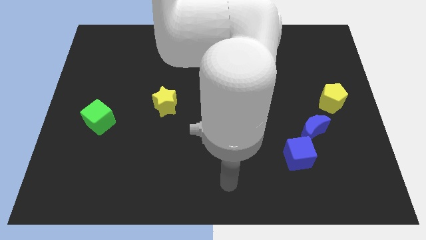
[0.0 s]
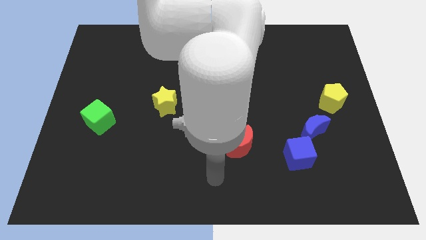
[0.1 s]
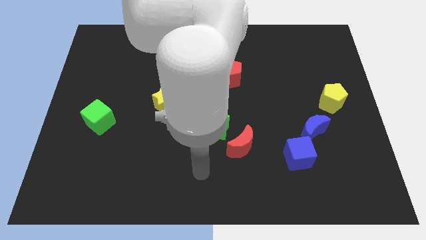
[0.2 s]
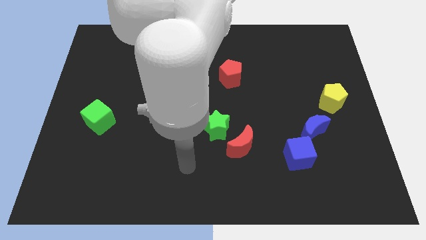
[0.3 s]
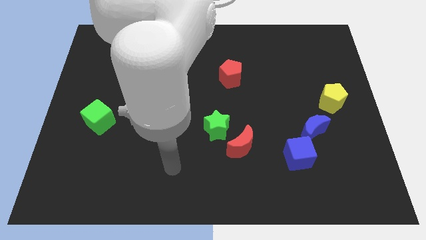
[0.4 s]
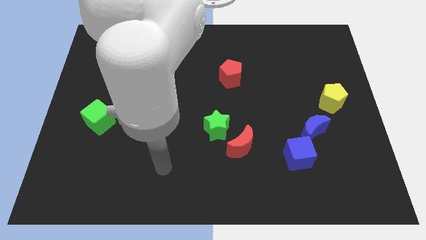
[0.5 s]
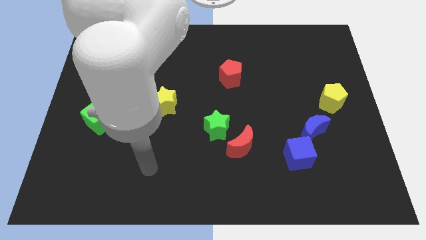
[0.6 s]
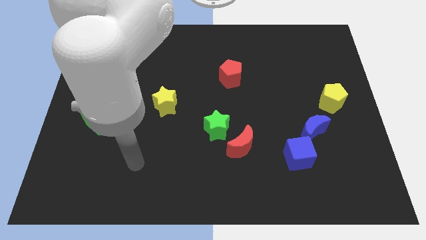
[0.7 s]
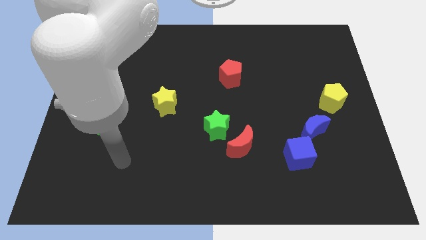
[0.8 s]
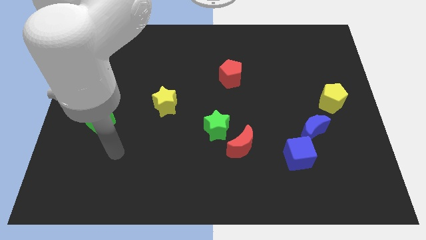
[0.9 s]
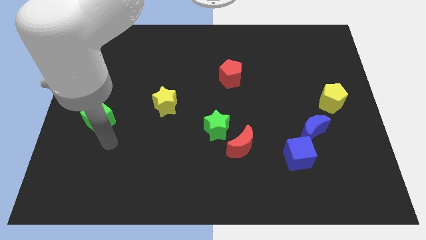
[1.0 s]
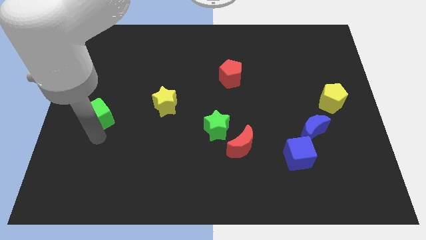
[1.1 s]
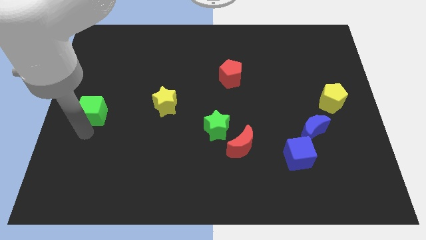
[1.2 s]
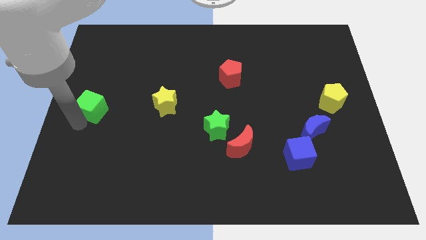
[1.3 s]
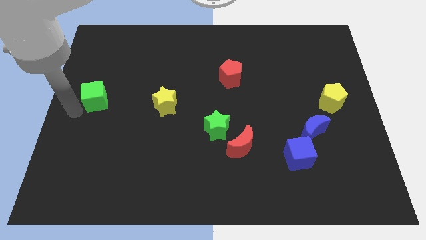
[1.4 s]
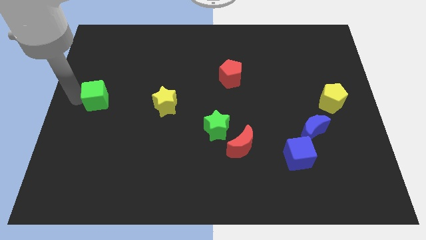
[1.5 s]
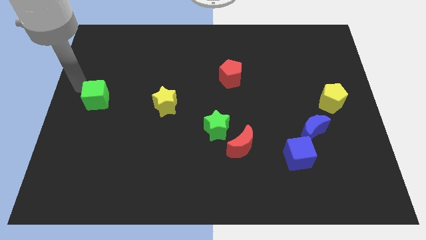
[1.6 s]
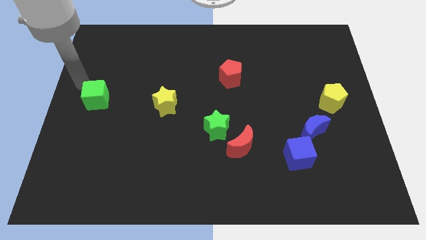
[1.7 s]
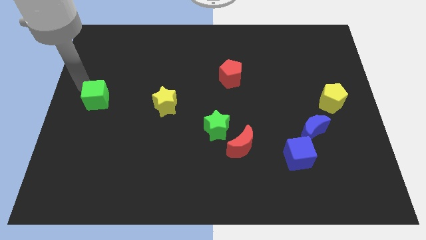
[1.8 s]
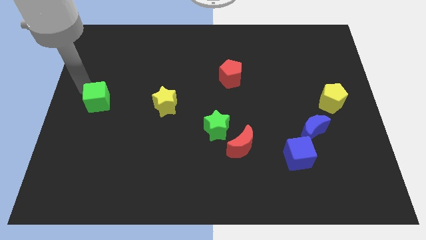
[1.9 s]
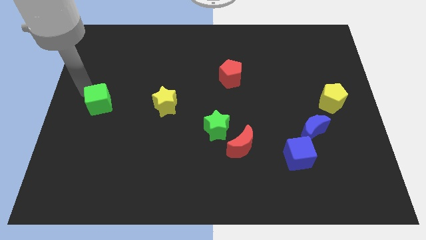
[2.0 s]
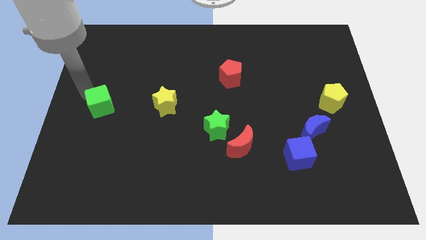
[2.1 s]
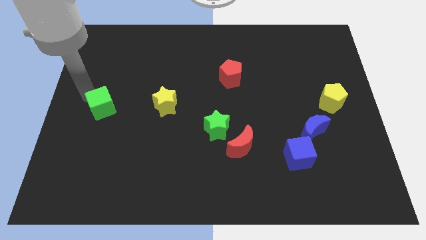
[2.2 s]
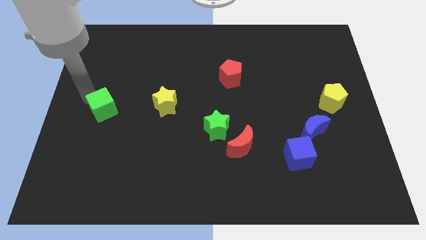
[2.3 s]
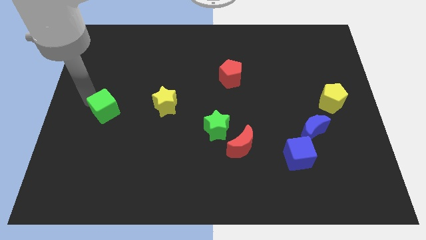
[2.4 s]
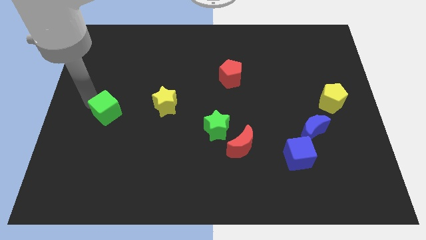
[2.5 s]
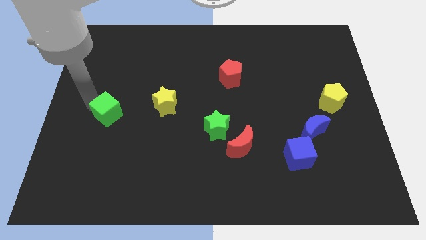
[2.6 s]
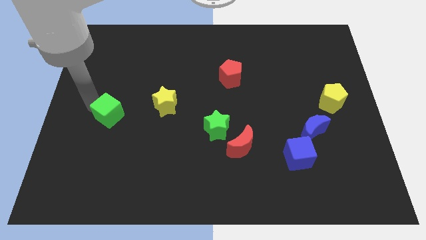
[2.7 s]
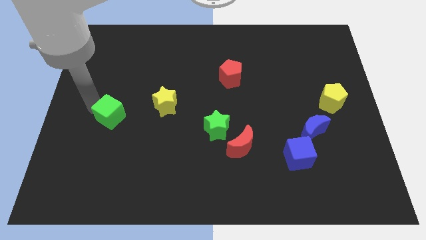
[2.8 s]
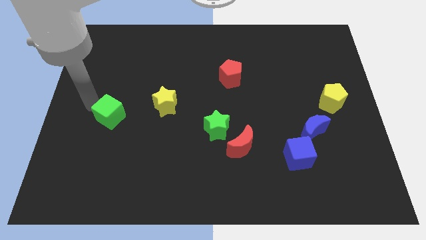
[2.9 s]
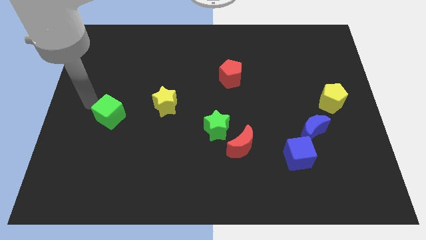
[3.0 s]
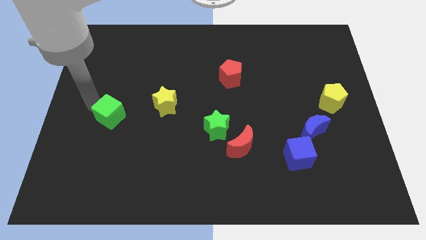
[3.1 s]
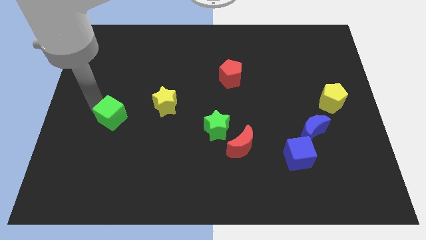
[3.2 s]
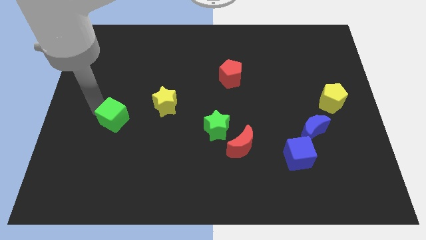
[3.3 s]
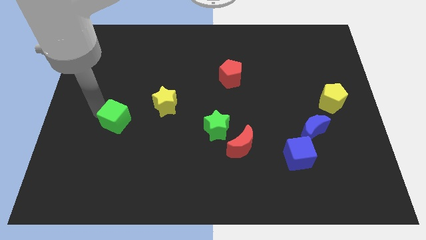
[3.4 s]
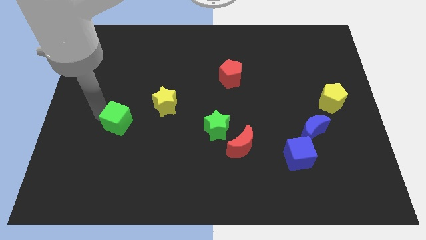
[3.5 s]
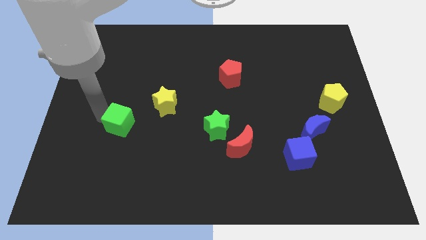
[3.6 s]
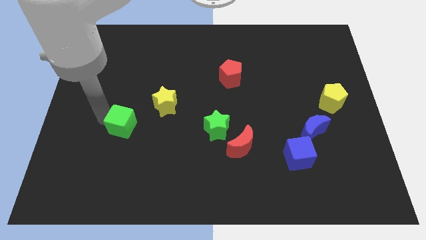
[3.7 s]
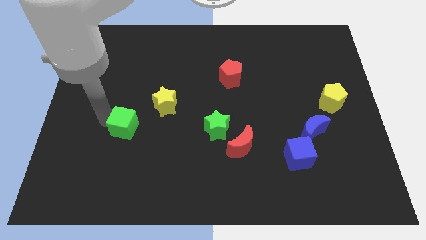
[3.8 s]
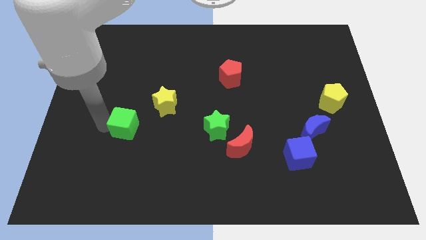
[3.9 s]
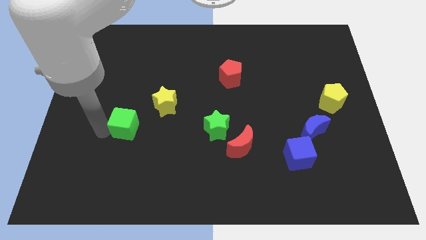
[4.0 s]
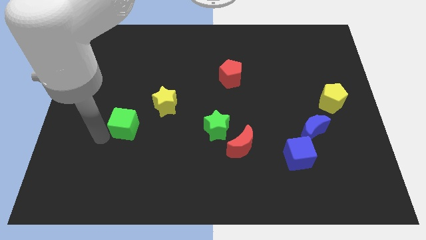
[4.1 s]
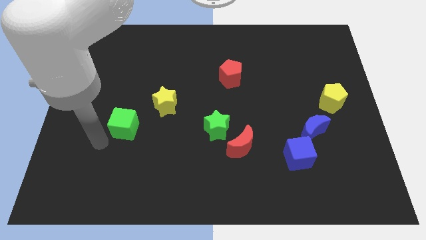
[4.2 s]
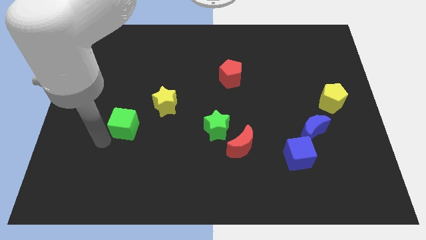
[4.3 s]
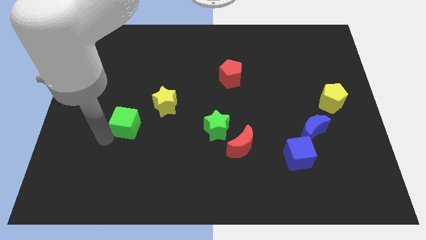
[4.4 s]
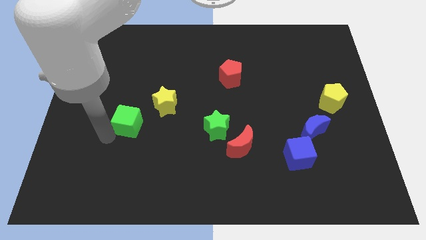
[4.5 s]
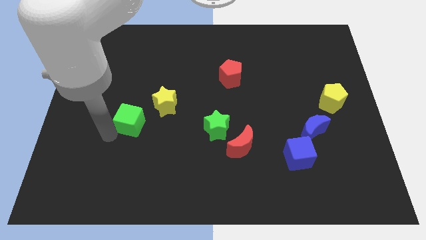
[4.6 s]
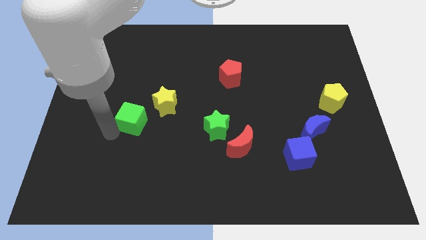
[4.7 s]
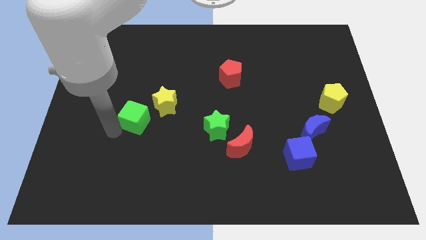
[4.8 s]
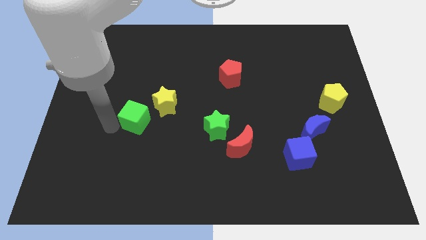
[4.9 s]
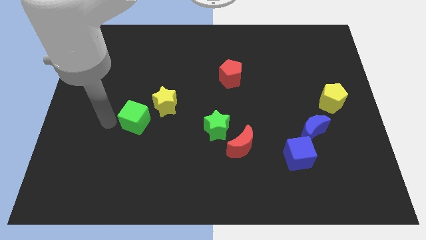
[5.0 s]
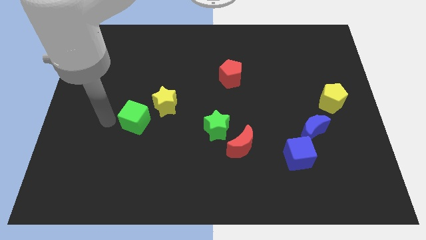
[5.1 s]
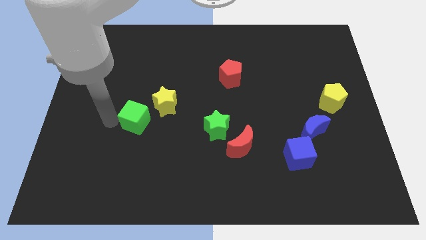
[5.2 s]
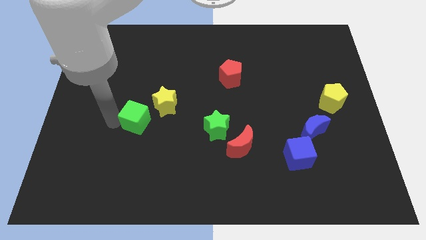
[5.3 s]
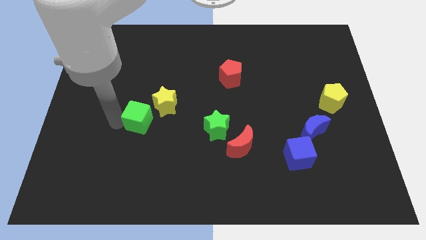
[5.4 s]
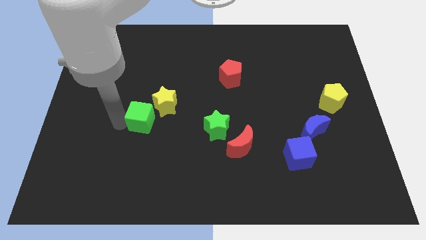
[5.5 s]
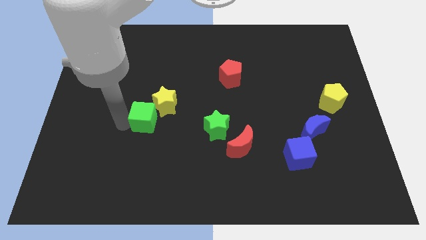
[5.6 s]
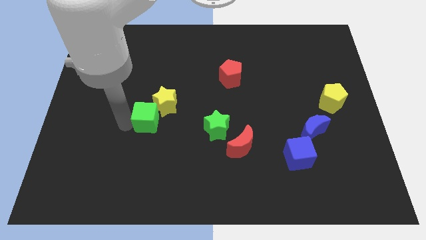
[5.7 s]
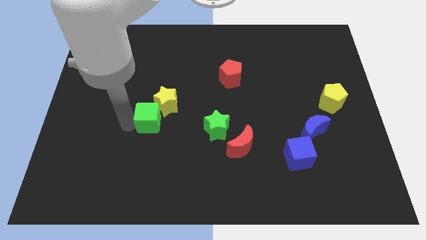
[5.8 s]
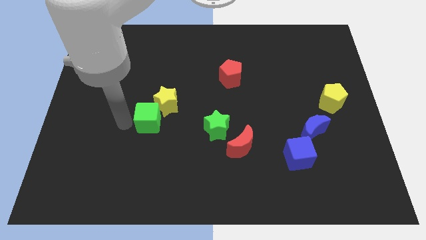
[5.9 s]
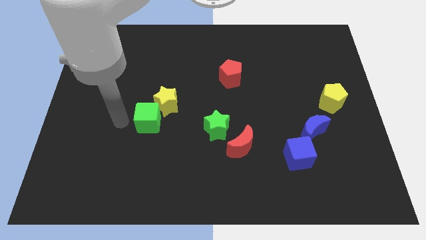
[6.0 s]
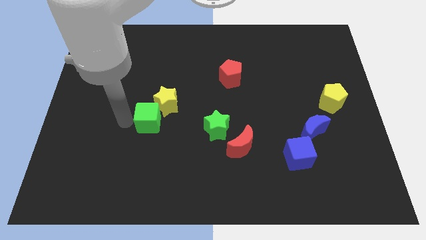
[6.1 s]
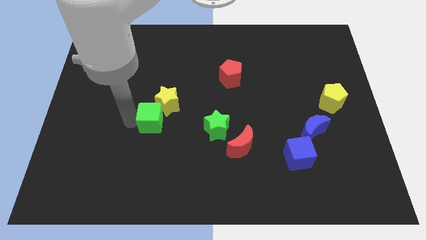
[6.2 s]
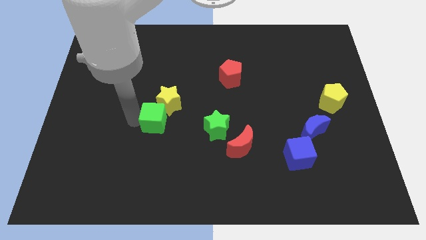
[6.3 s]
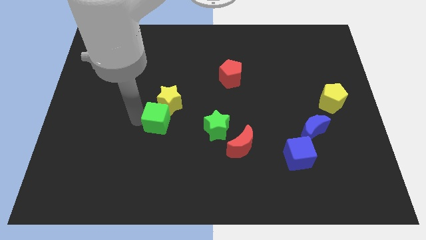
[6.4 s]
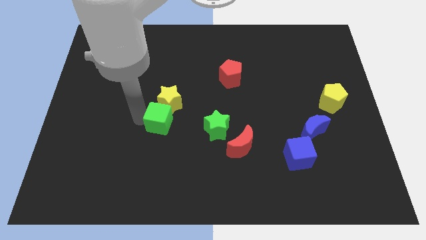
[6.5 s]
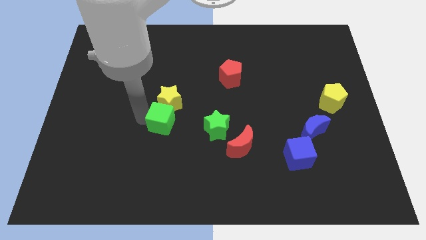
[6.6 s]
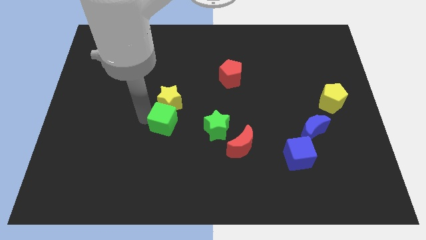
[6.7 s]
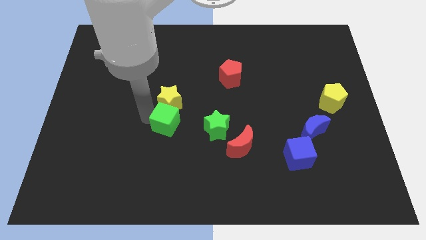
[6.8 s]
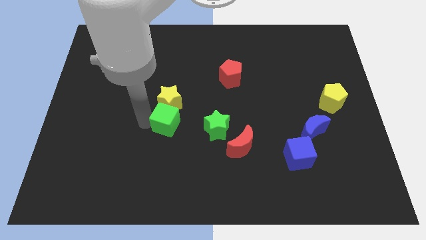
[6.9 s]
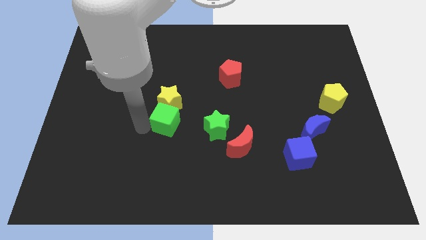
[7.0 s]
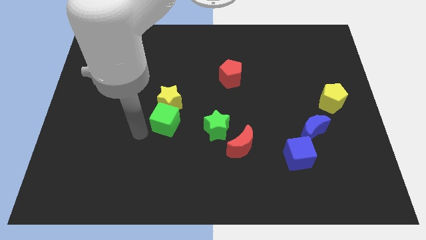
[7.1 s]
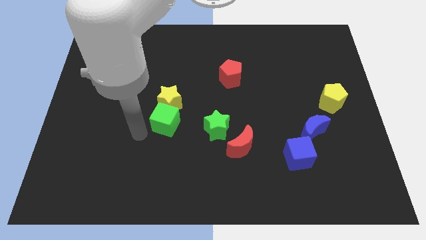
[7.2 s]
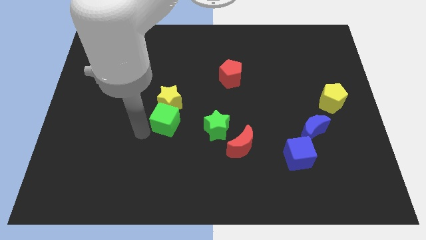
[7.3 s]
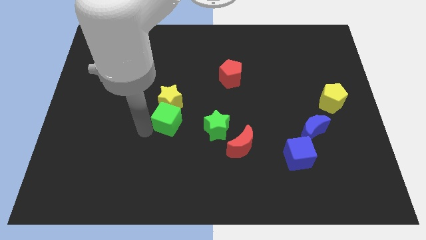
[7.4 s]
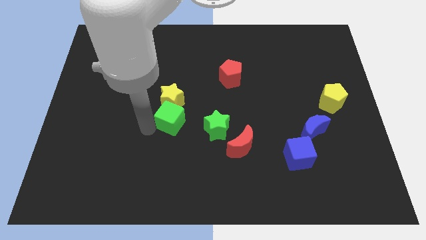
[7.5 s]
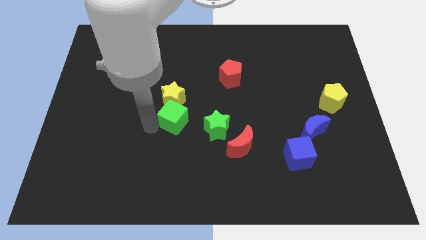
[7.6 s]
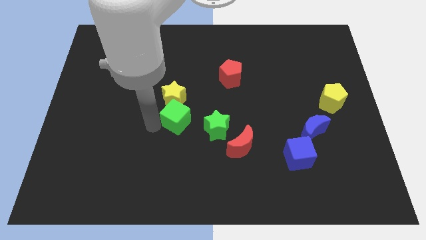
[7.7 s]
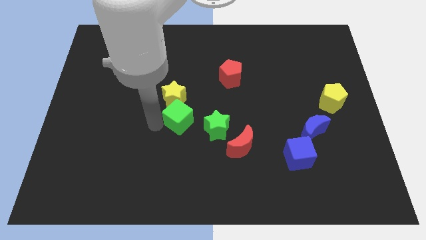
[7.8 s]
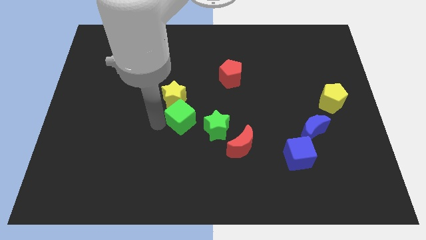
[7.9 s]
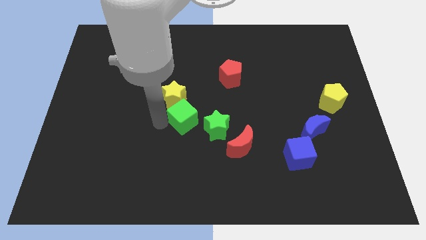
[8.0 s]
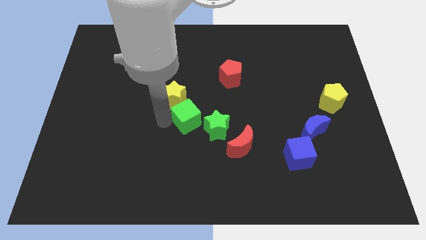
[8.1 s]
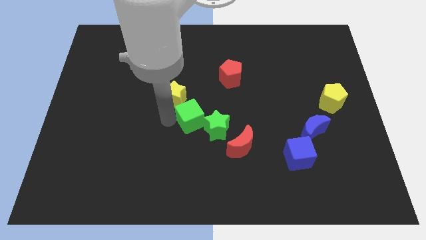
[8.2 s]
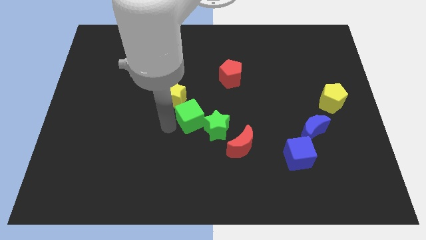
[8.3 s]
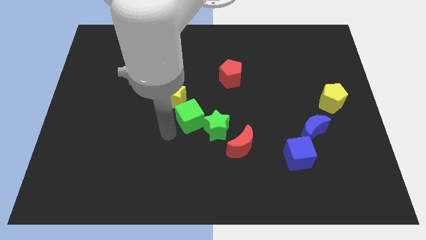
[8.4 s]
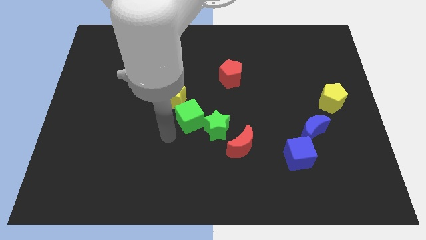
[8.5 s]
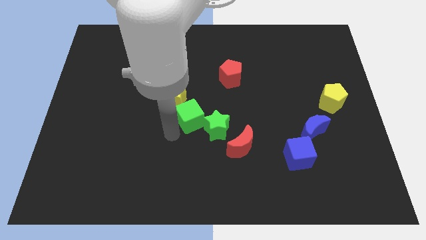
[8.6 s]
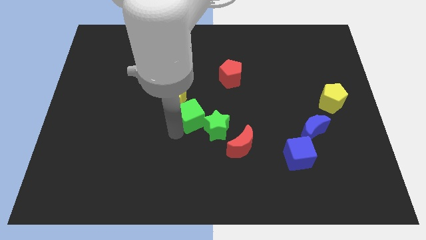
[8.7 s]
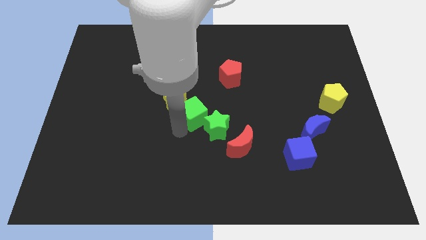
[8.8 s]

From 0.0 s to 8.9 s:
put the green cube right of the yellow star
